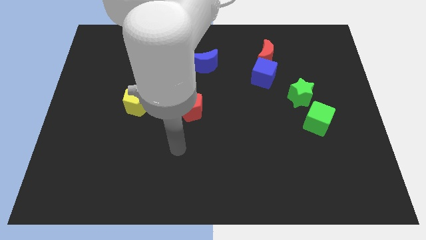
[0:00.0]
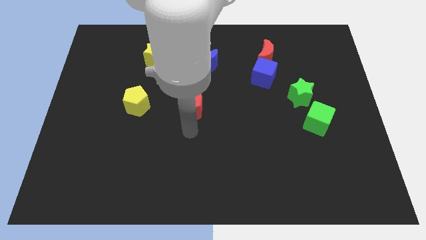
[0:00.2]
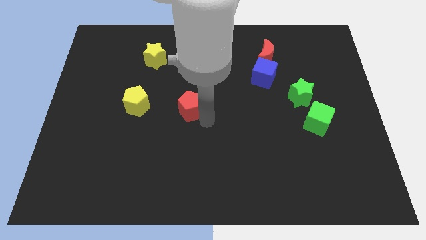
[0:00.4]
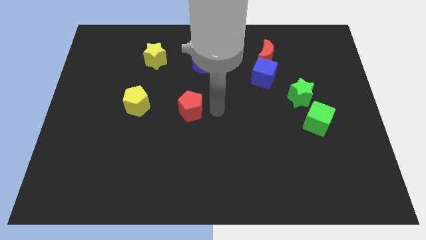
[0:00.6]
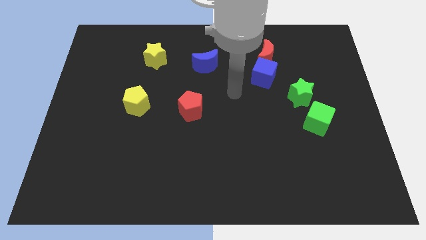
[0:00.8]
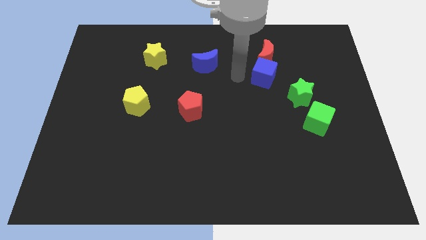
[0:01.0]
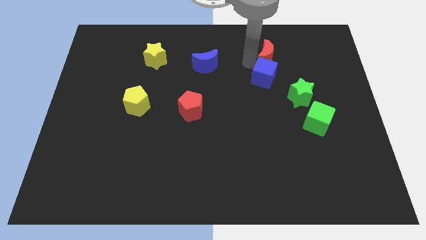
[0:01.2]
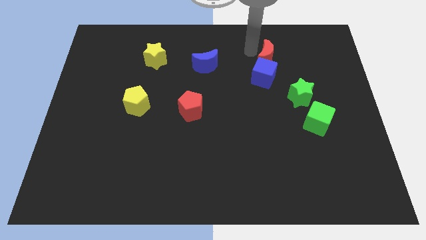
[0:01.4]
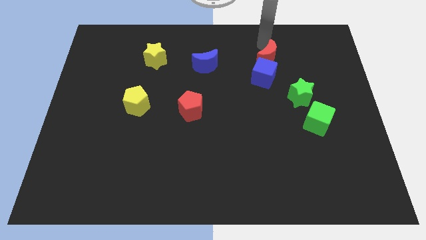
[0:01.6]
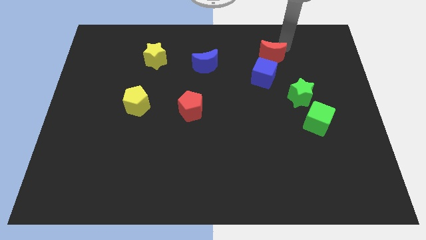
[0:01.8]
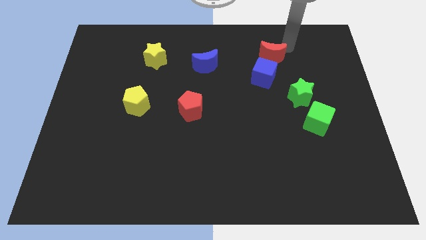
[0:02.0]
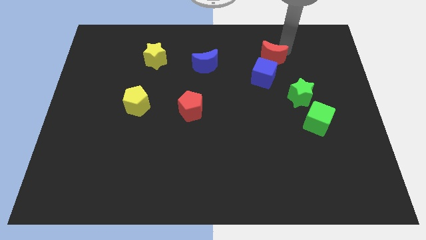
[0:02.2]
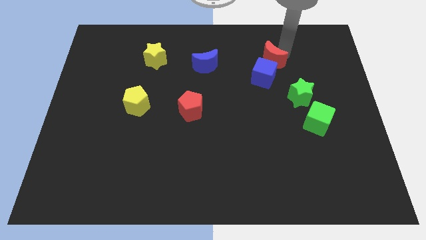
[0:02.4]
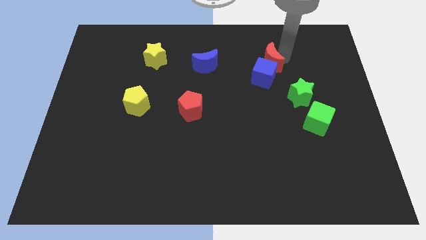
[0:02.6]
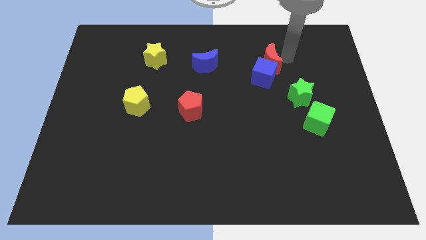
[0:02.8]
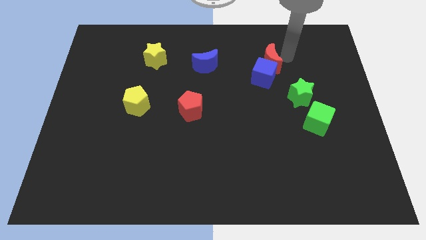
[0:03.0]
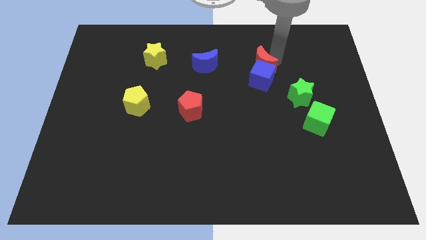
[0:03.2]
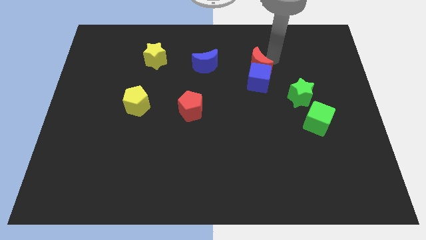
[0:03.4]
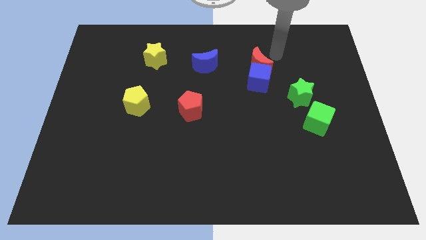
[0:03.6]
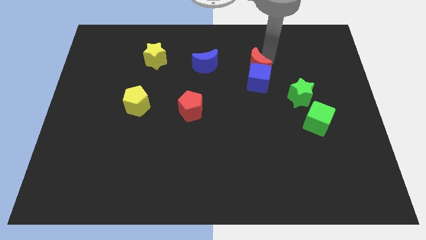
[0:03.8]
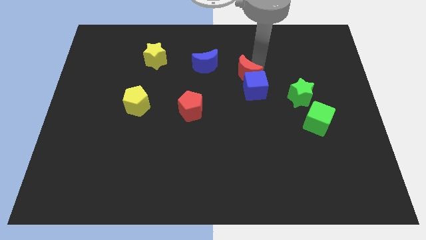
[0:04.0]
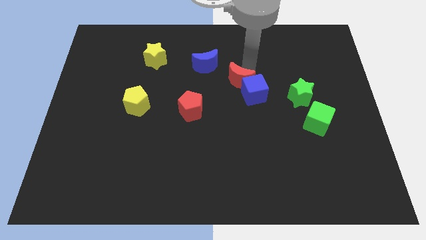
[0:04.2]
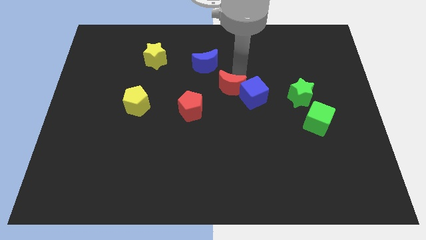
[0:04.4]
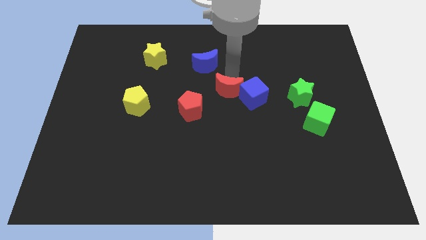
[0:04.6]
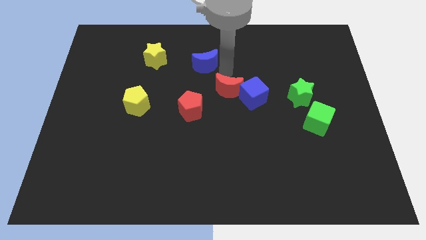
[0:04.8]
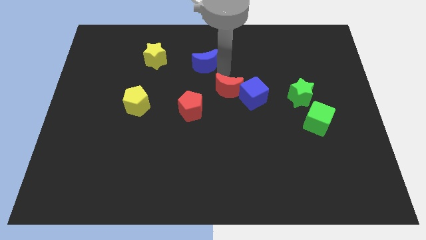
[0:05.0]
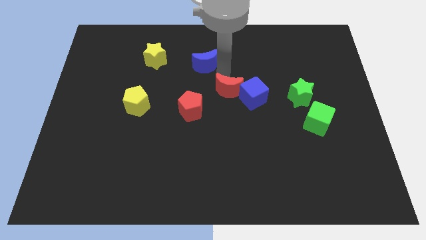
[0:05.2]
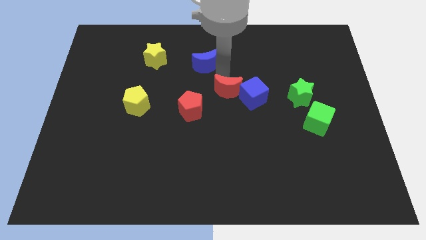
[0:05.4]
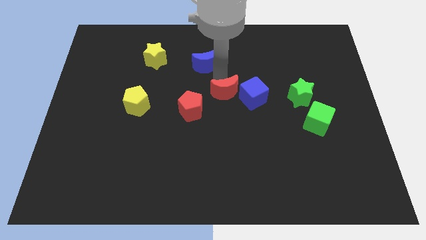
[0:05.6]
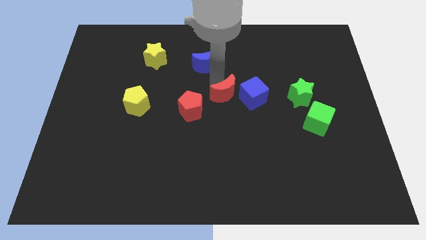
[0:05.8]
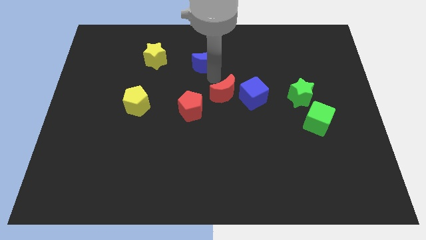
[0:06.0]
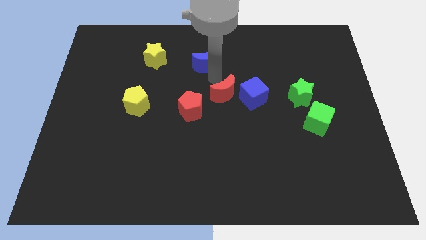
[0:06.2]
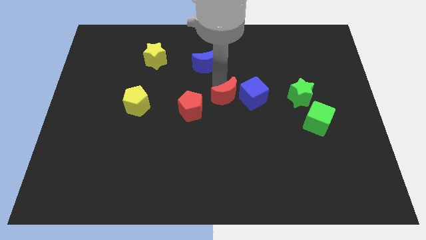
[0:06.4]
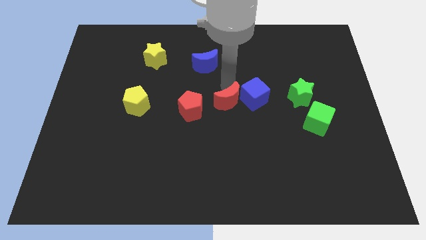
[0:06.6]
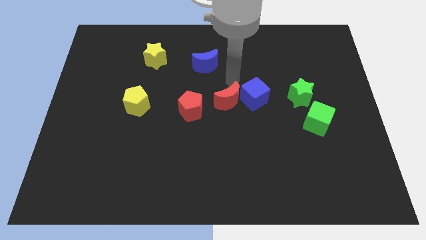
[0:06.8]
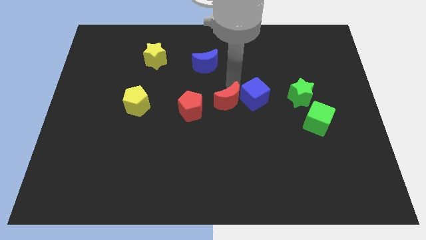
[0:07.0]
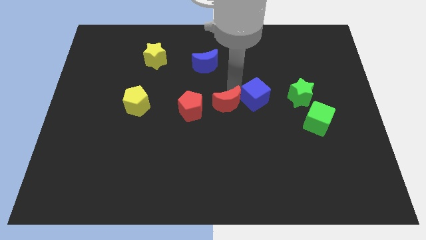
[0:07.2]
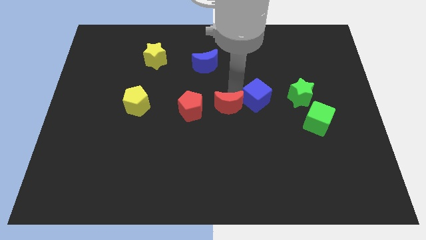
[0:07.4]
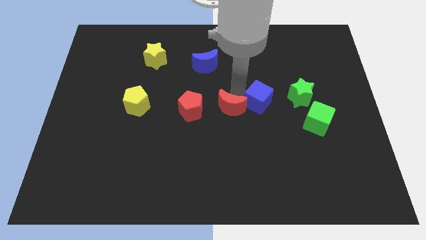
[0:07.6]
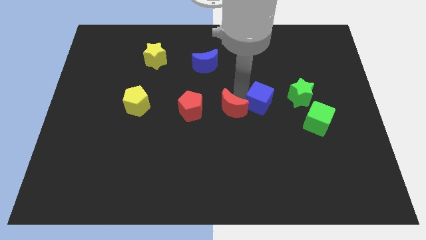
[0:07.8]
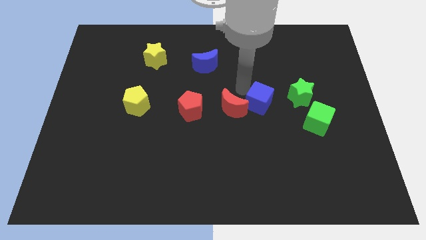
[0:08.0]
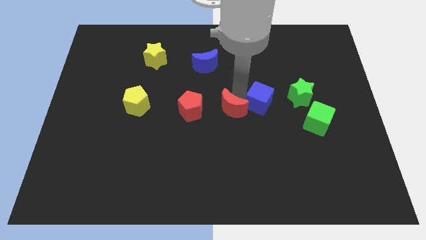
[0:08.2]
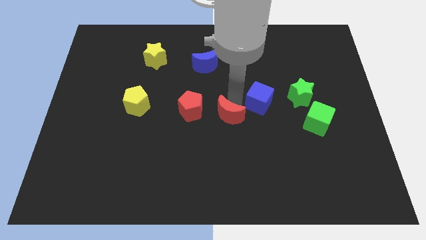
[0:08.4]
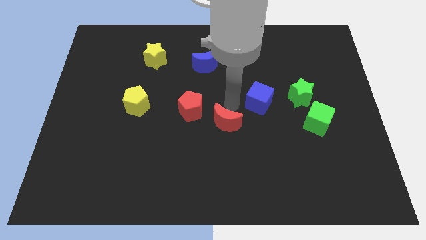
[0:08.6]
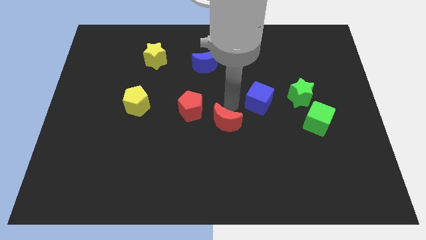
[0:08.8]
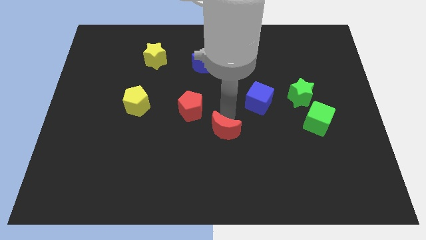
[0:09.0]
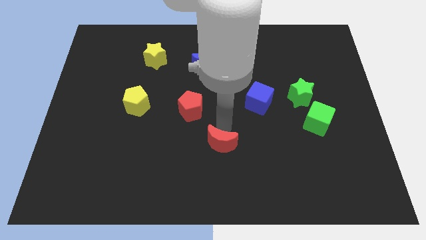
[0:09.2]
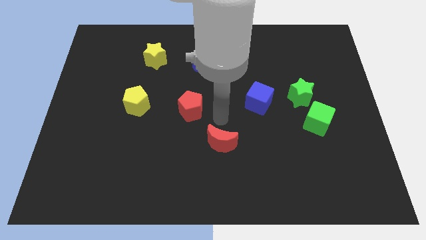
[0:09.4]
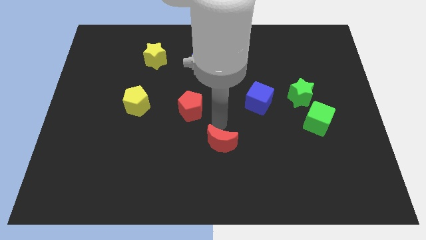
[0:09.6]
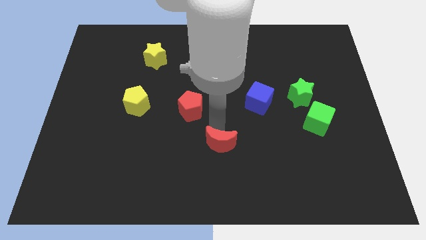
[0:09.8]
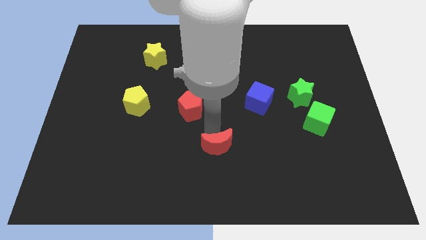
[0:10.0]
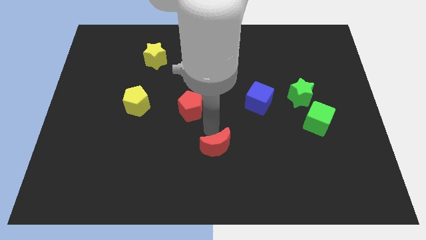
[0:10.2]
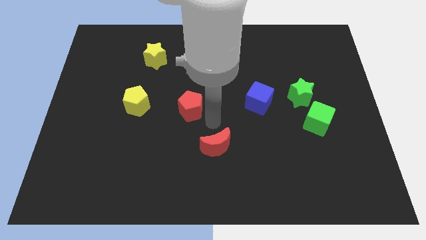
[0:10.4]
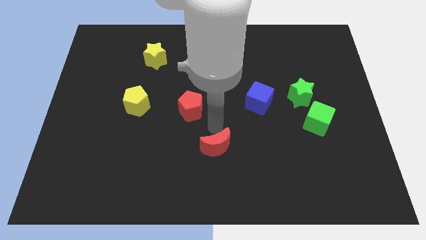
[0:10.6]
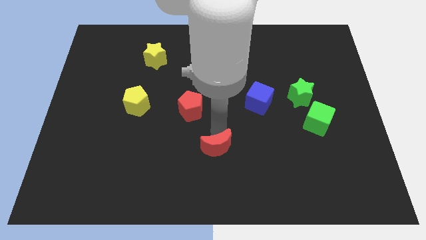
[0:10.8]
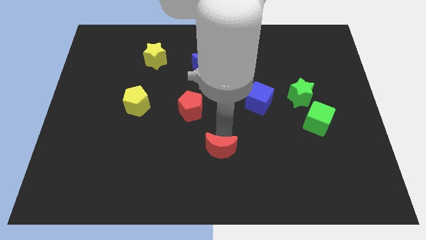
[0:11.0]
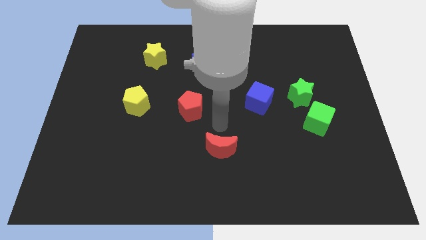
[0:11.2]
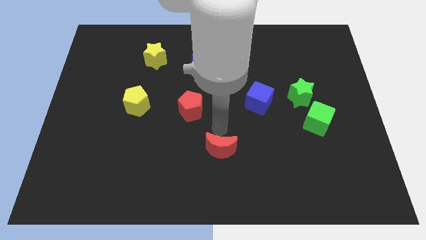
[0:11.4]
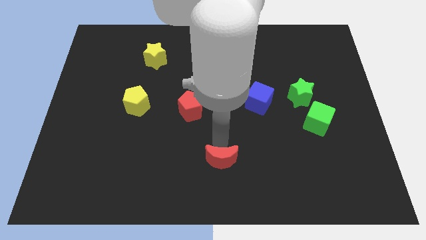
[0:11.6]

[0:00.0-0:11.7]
put the red moon to the bottom side

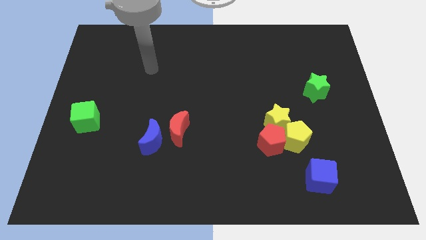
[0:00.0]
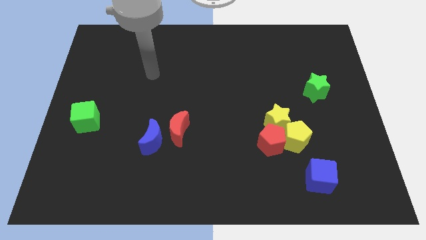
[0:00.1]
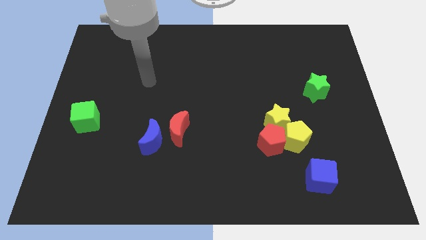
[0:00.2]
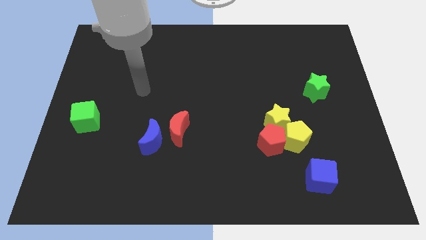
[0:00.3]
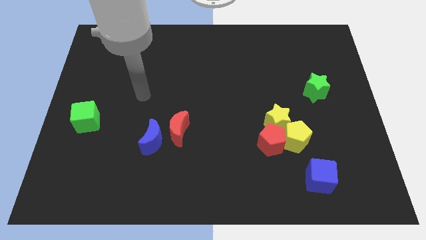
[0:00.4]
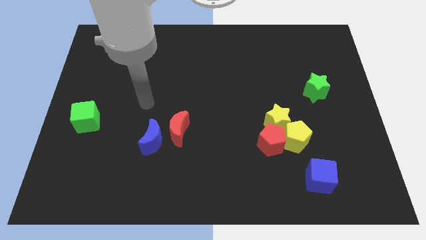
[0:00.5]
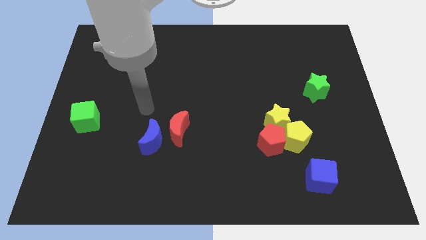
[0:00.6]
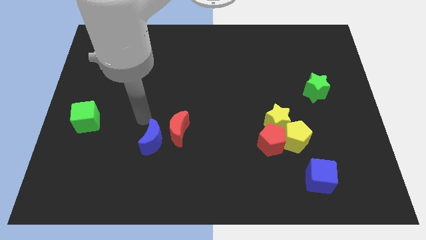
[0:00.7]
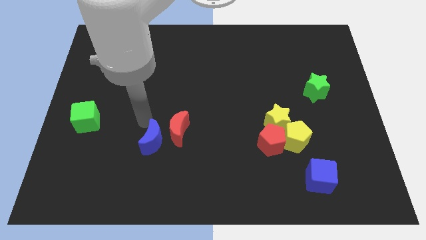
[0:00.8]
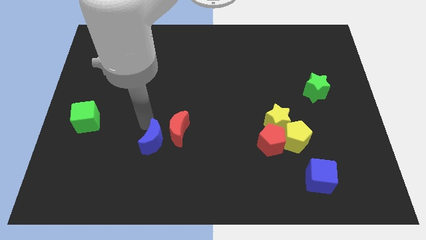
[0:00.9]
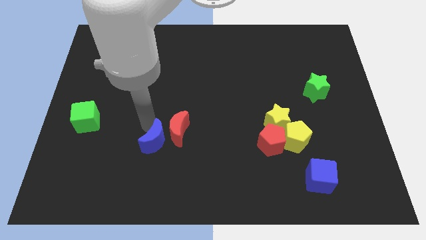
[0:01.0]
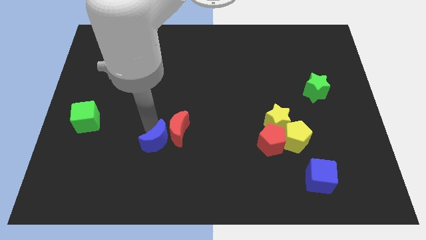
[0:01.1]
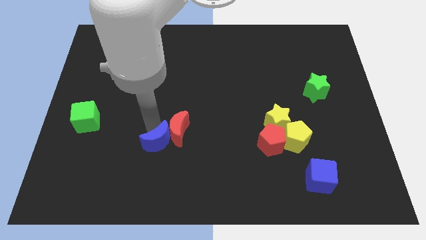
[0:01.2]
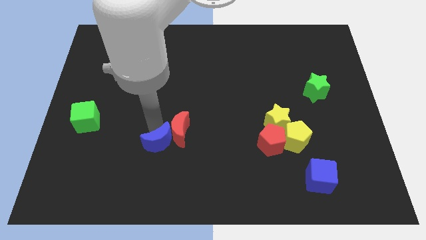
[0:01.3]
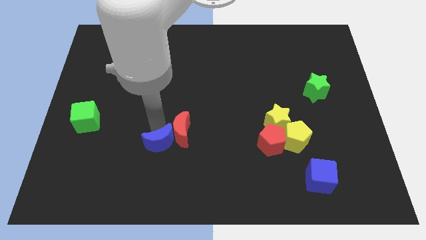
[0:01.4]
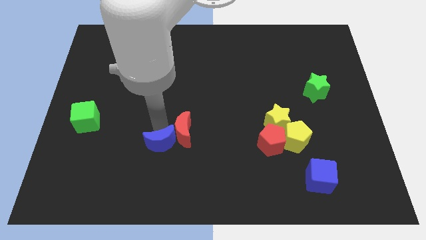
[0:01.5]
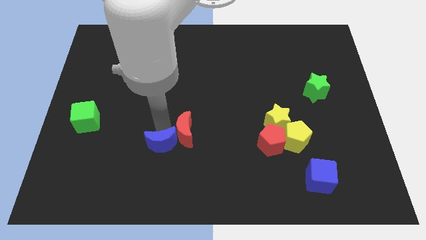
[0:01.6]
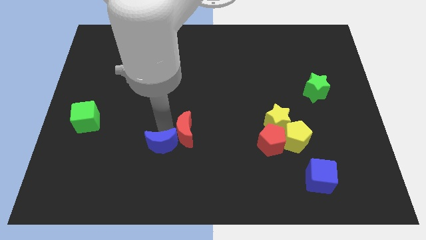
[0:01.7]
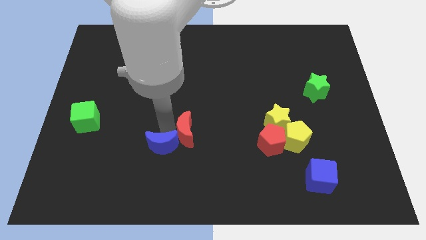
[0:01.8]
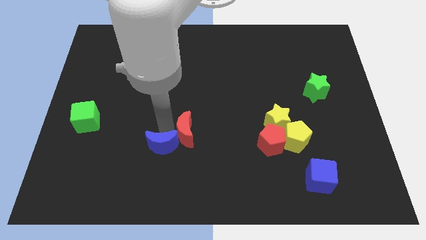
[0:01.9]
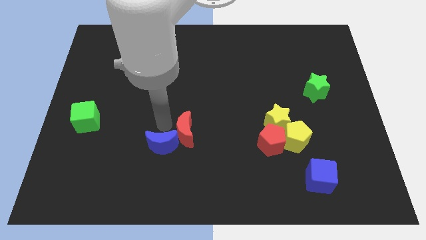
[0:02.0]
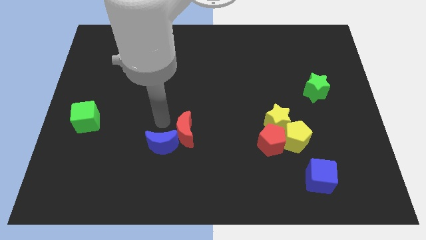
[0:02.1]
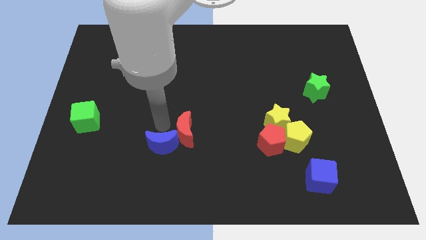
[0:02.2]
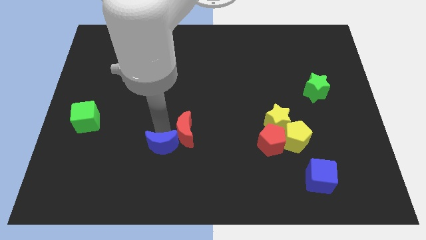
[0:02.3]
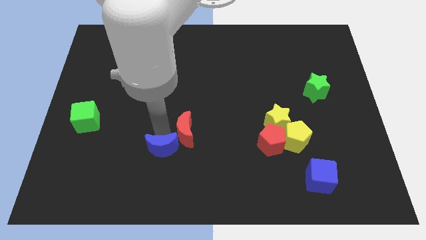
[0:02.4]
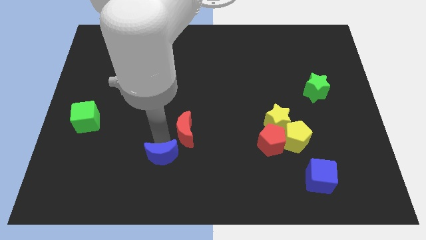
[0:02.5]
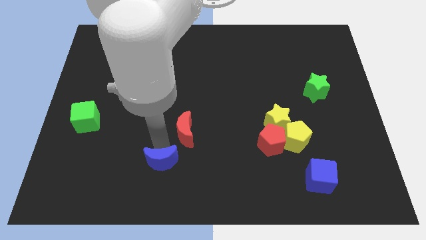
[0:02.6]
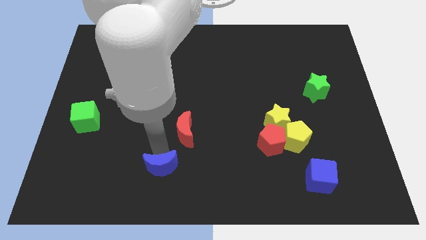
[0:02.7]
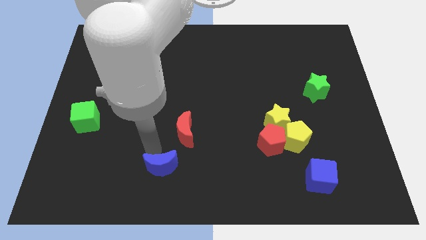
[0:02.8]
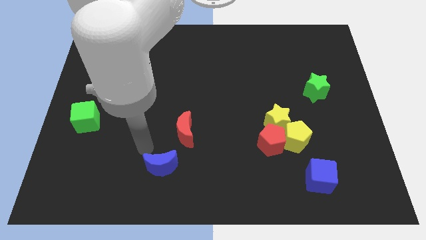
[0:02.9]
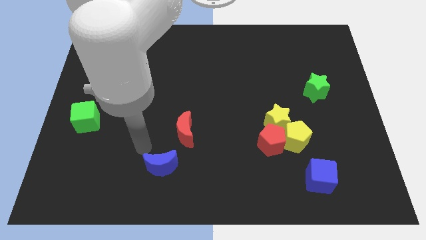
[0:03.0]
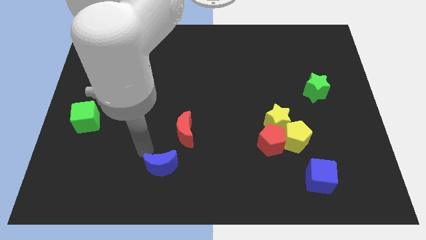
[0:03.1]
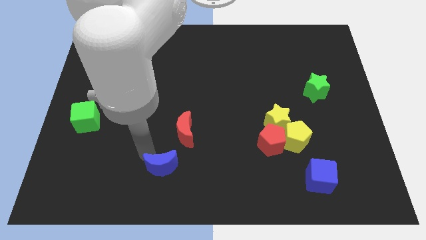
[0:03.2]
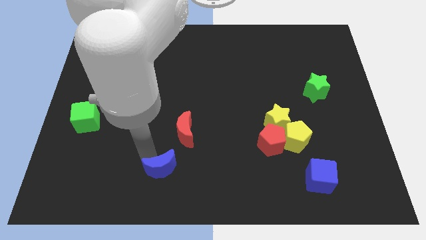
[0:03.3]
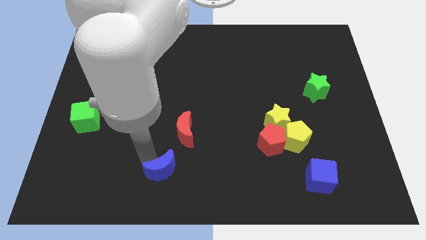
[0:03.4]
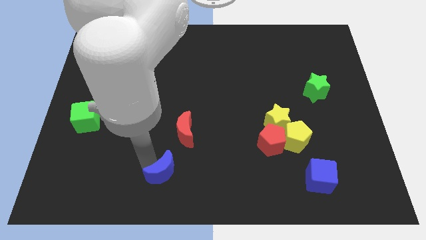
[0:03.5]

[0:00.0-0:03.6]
move the blue moon to the bottom side
